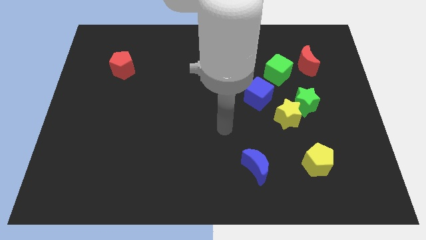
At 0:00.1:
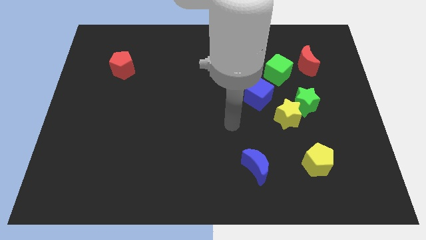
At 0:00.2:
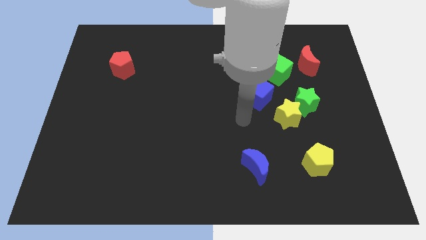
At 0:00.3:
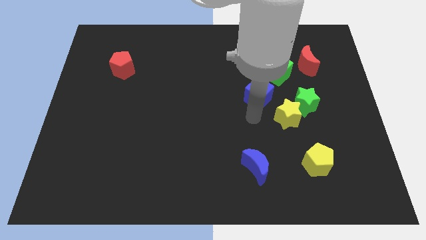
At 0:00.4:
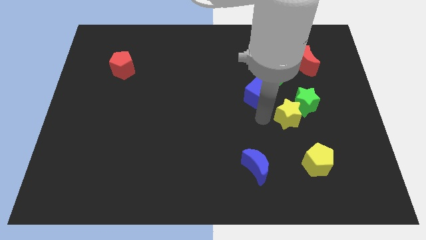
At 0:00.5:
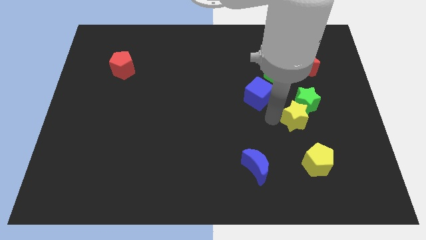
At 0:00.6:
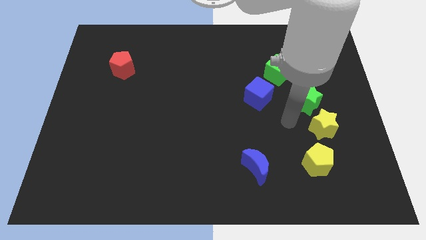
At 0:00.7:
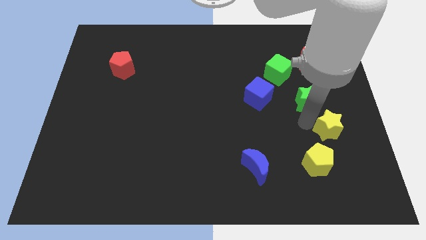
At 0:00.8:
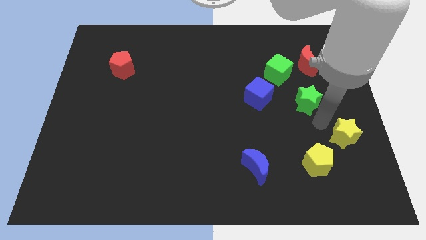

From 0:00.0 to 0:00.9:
move the green star away from the yellow star

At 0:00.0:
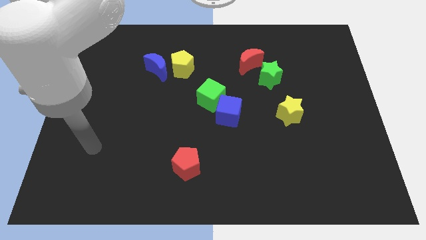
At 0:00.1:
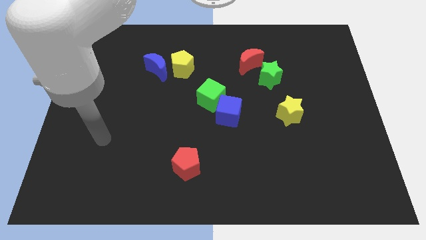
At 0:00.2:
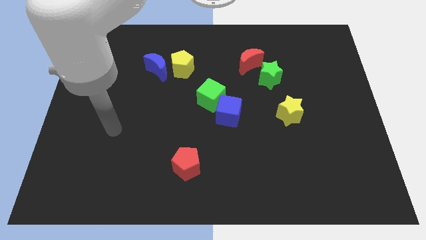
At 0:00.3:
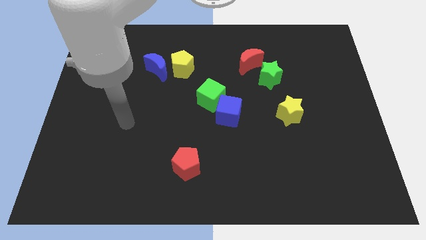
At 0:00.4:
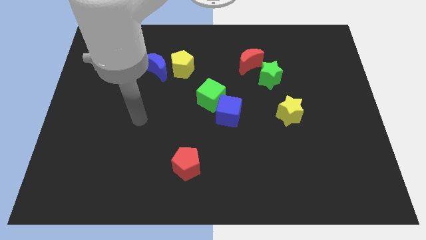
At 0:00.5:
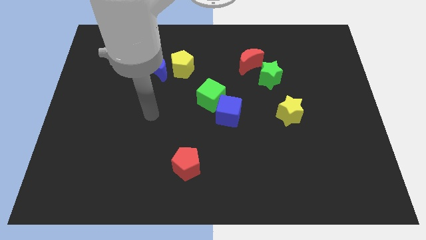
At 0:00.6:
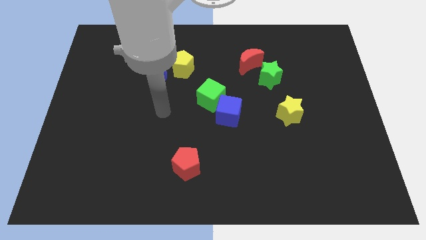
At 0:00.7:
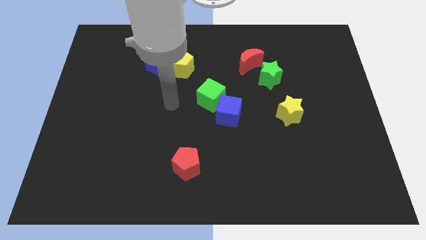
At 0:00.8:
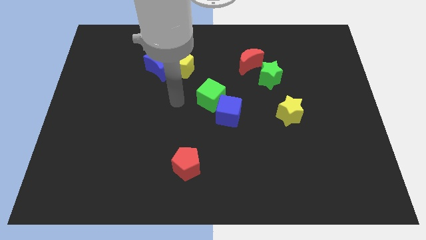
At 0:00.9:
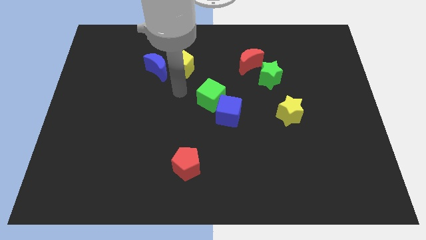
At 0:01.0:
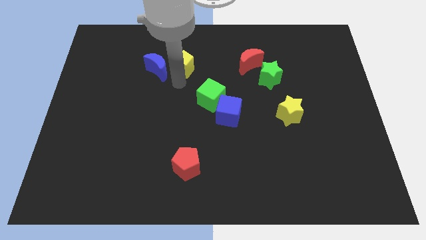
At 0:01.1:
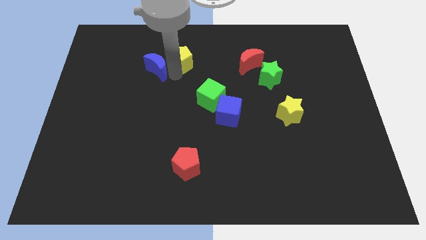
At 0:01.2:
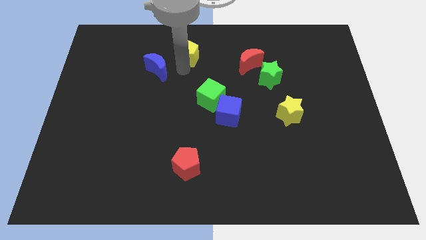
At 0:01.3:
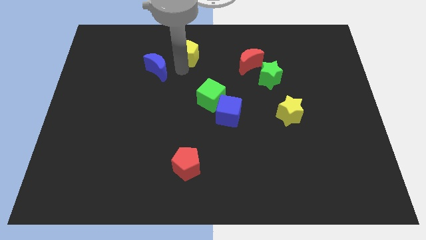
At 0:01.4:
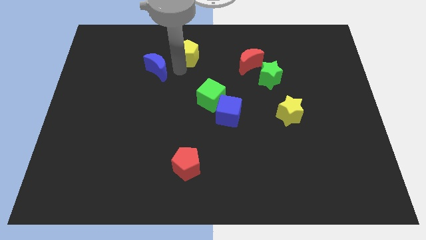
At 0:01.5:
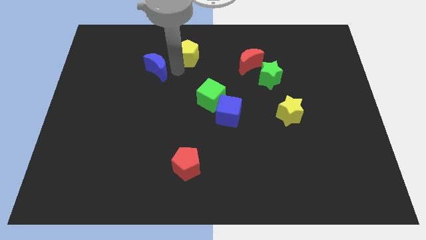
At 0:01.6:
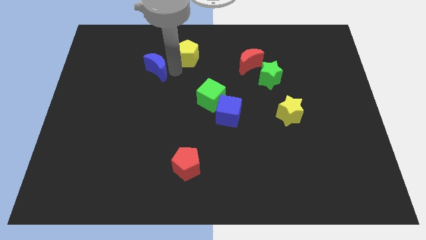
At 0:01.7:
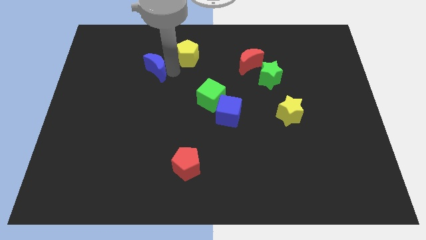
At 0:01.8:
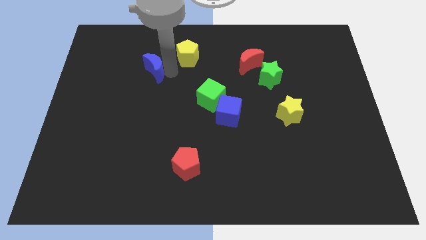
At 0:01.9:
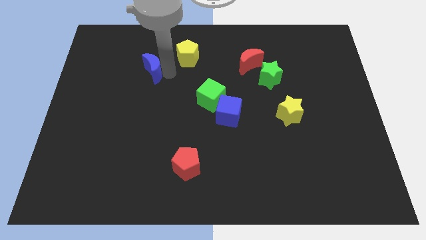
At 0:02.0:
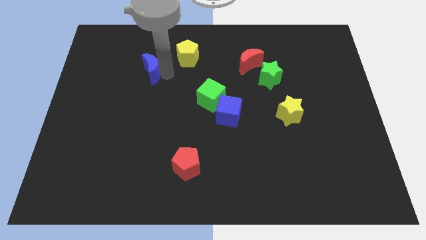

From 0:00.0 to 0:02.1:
move the blue moon away from the yellow pentagon

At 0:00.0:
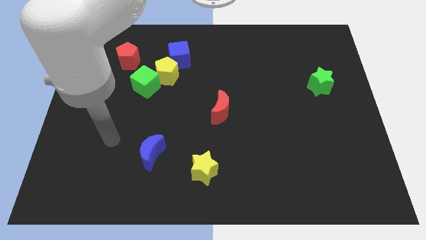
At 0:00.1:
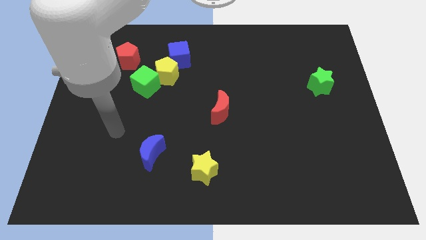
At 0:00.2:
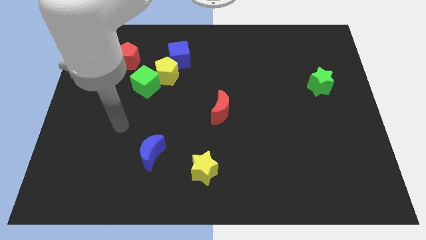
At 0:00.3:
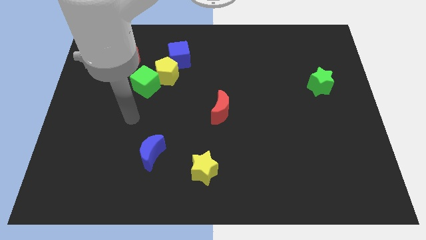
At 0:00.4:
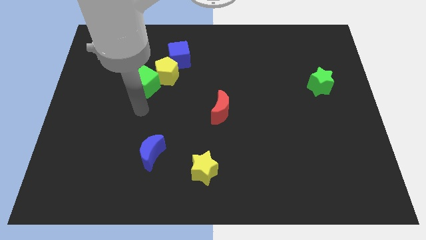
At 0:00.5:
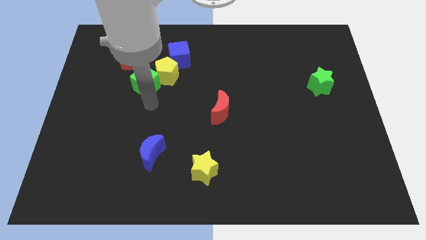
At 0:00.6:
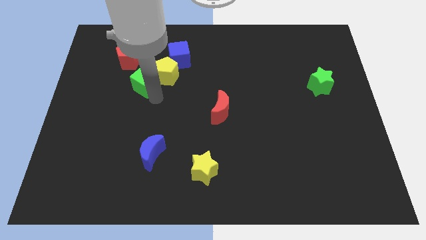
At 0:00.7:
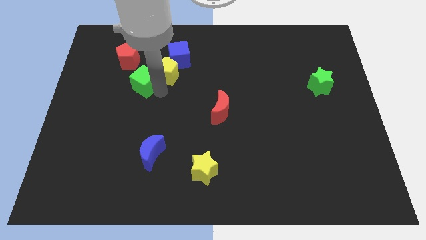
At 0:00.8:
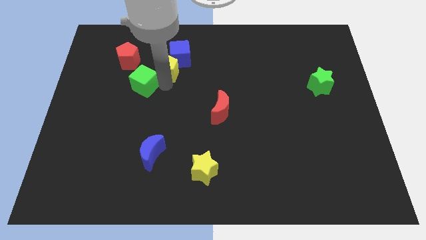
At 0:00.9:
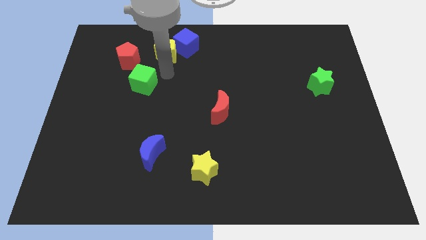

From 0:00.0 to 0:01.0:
pull the green cube apart from the yellow pentagon

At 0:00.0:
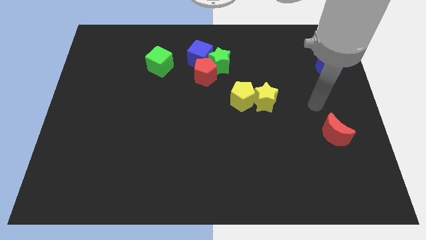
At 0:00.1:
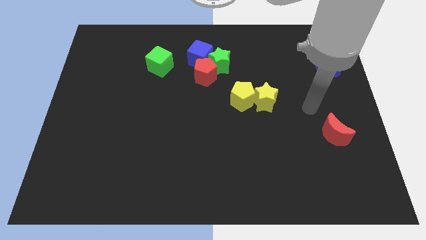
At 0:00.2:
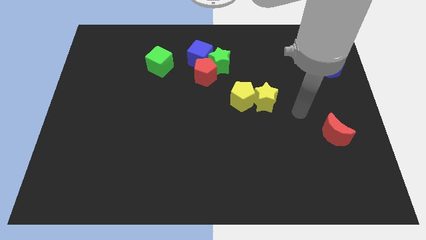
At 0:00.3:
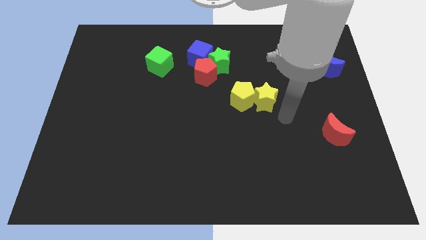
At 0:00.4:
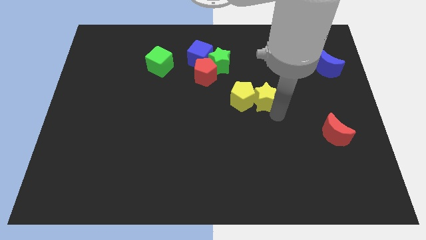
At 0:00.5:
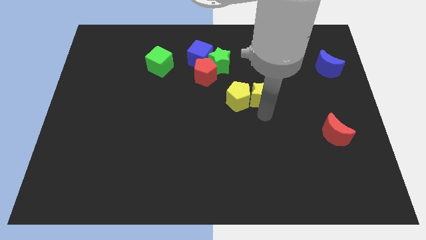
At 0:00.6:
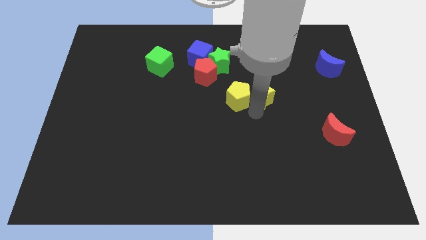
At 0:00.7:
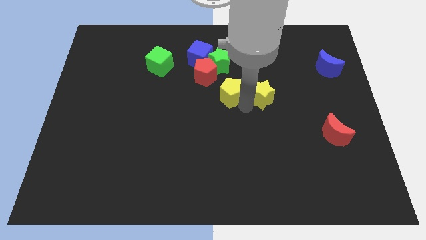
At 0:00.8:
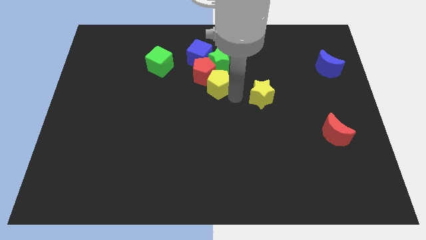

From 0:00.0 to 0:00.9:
move the yellow star away from the yellow pentagon

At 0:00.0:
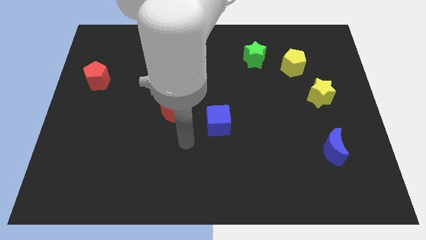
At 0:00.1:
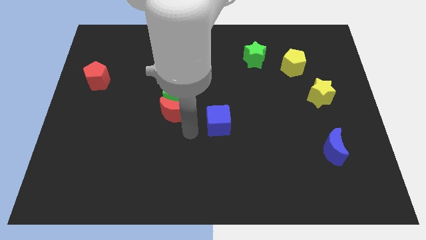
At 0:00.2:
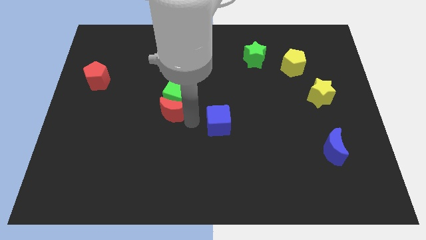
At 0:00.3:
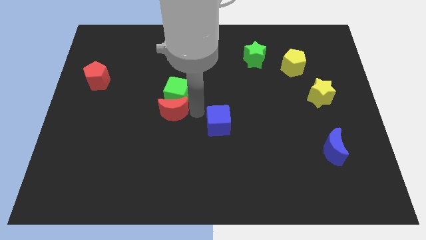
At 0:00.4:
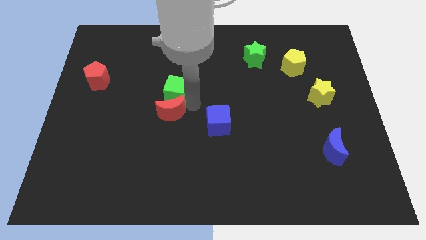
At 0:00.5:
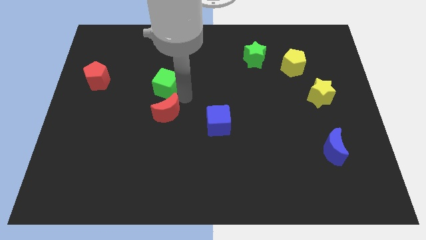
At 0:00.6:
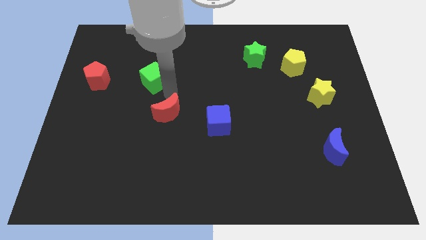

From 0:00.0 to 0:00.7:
move the red moon away from the green cube

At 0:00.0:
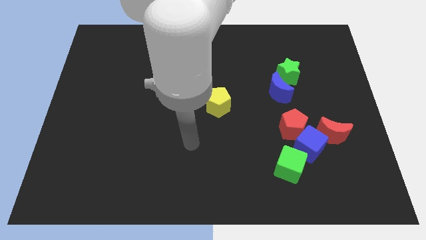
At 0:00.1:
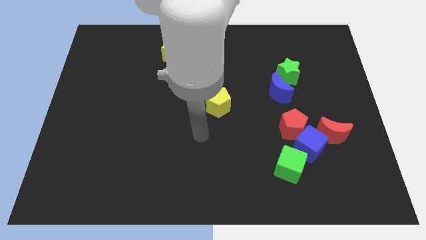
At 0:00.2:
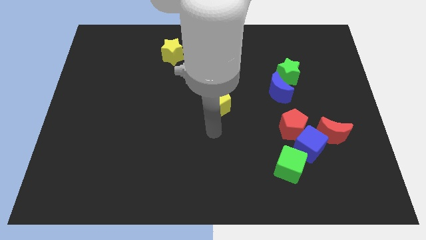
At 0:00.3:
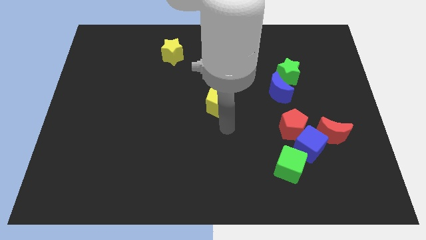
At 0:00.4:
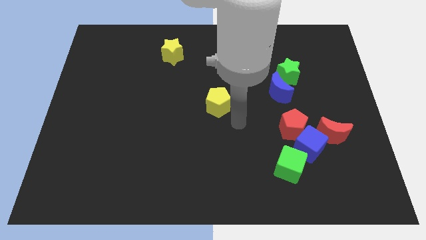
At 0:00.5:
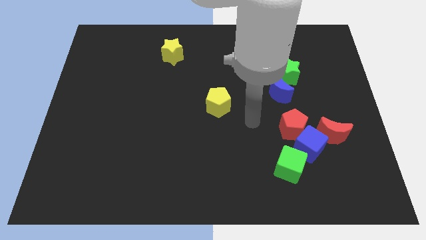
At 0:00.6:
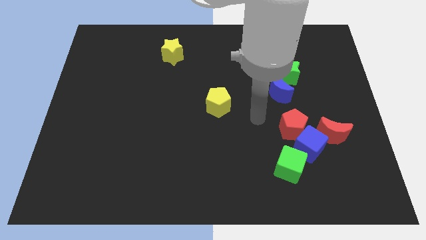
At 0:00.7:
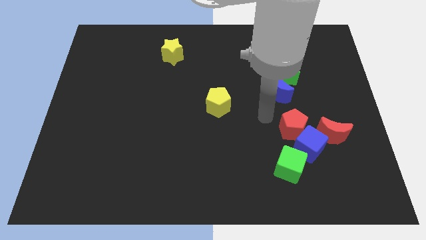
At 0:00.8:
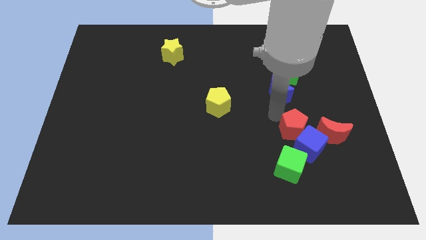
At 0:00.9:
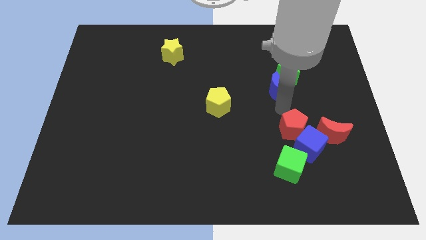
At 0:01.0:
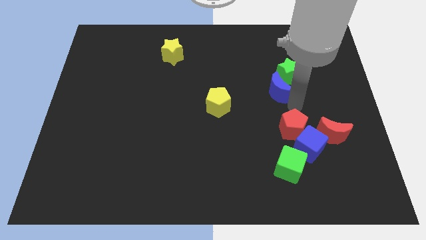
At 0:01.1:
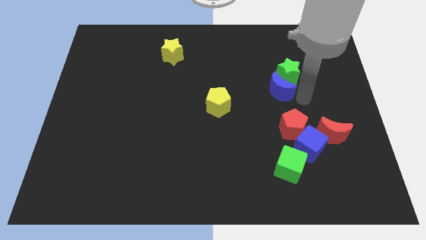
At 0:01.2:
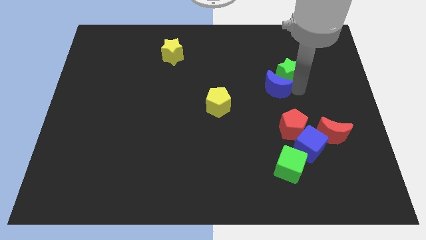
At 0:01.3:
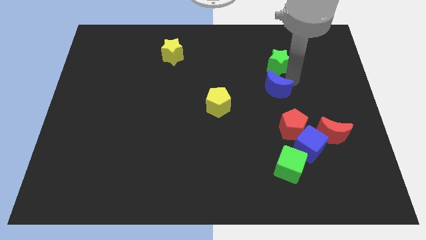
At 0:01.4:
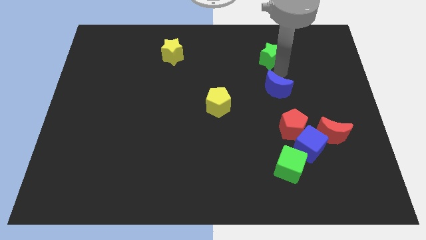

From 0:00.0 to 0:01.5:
separate the blue moon from the green star

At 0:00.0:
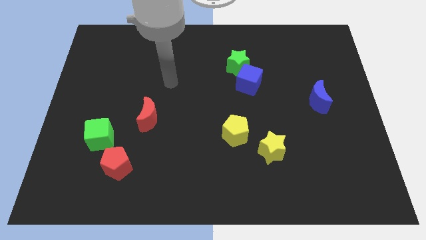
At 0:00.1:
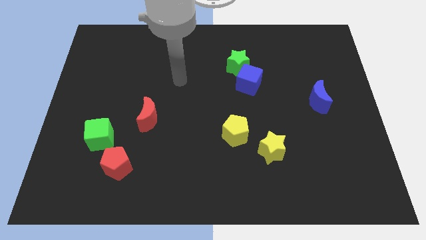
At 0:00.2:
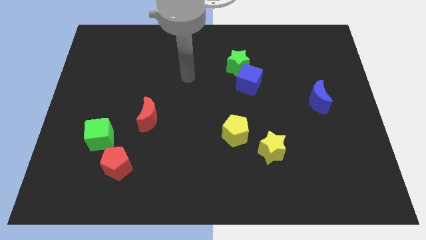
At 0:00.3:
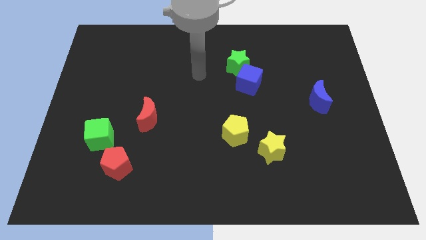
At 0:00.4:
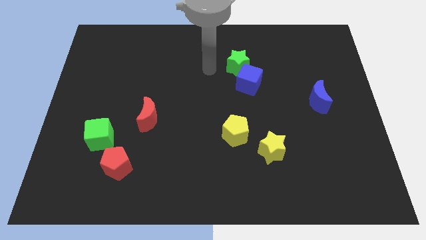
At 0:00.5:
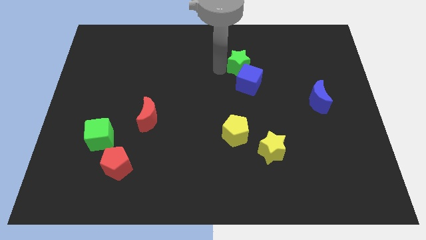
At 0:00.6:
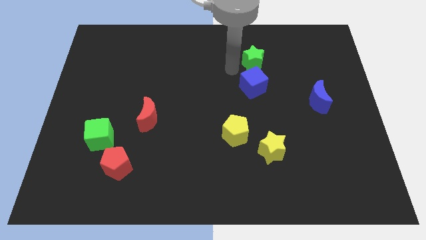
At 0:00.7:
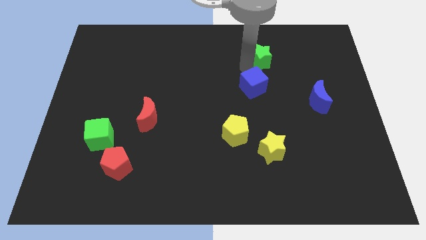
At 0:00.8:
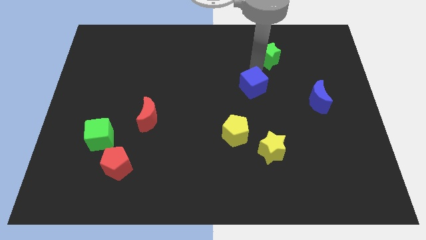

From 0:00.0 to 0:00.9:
pull the blue cube apart from the green star

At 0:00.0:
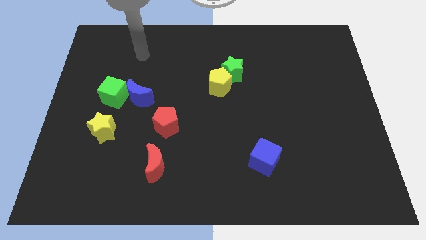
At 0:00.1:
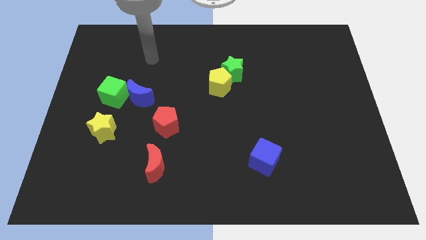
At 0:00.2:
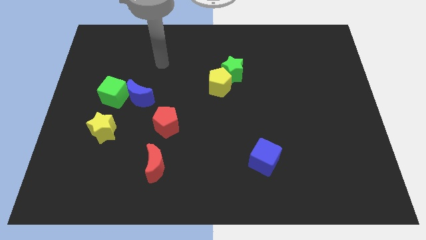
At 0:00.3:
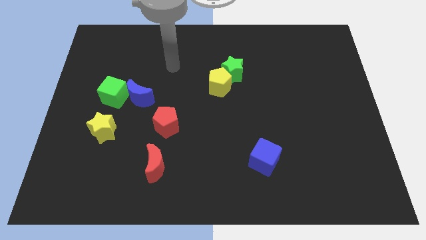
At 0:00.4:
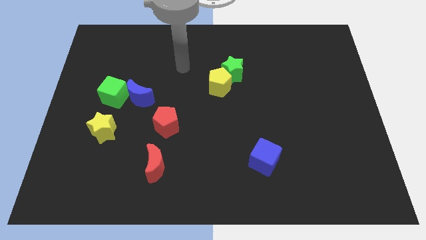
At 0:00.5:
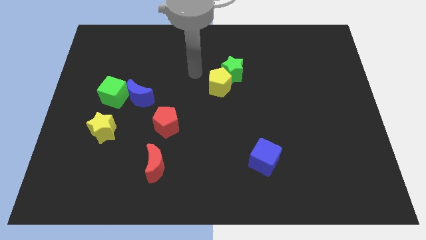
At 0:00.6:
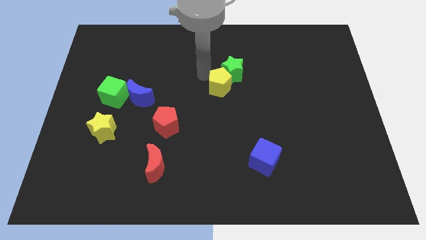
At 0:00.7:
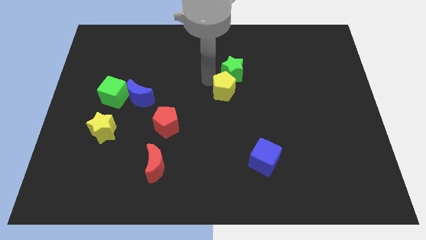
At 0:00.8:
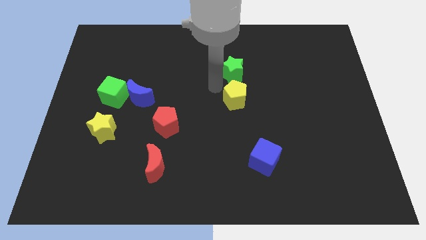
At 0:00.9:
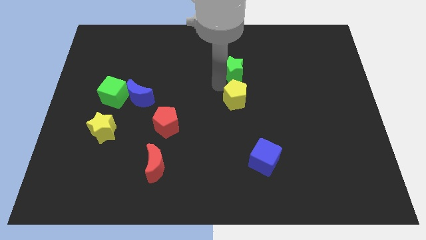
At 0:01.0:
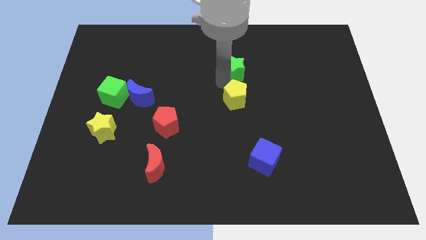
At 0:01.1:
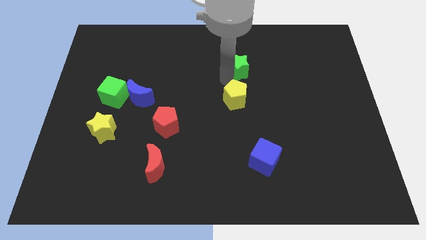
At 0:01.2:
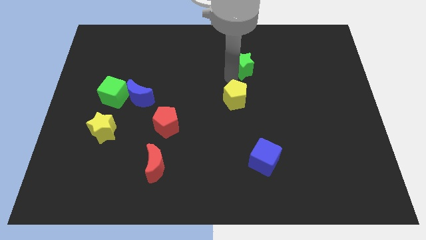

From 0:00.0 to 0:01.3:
separate the green star from the yellow pentagon

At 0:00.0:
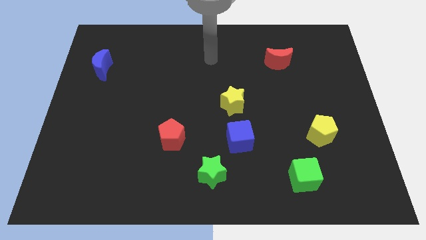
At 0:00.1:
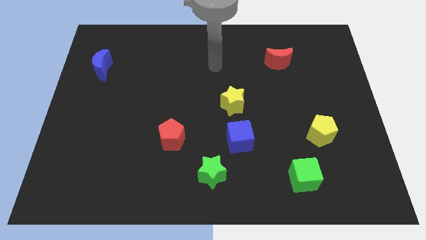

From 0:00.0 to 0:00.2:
move the blue cube away from the yellow star
